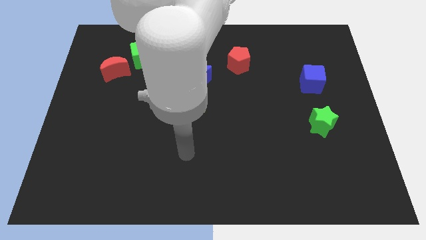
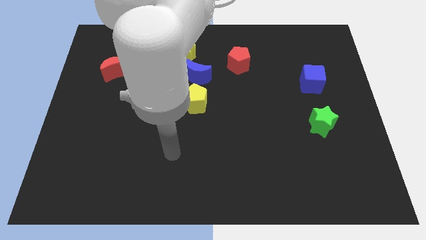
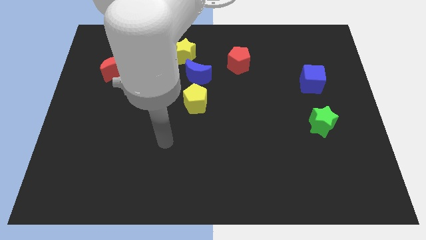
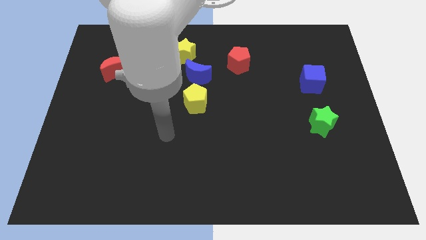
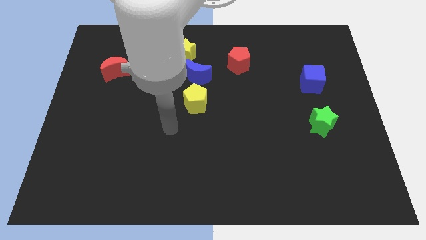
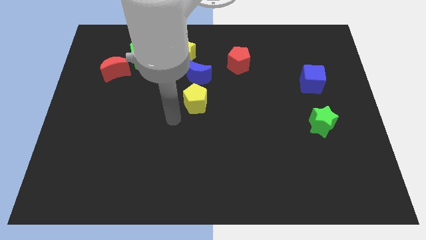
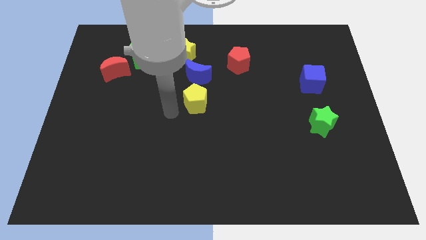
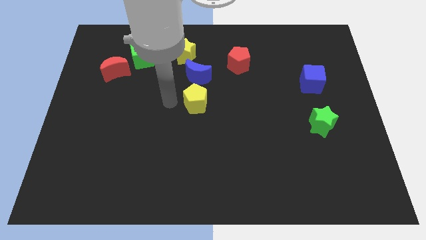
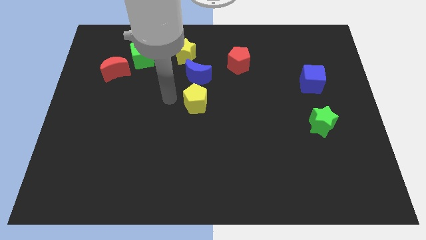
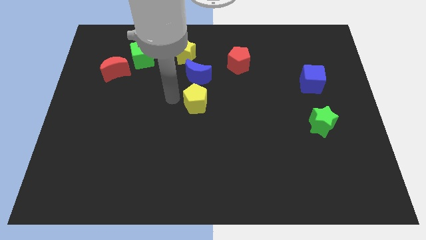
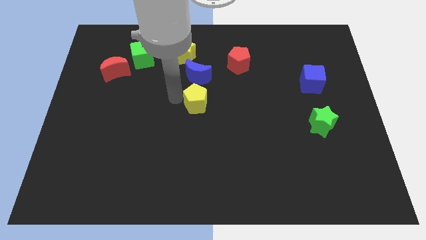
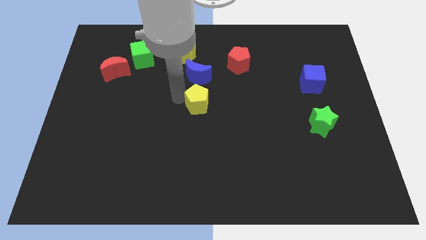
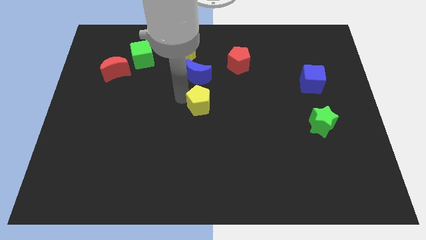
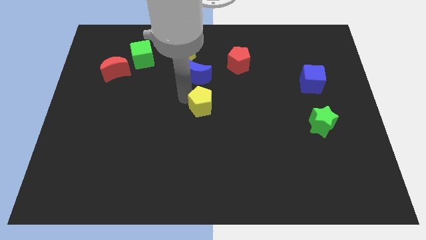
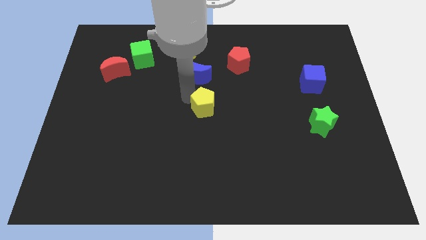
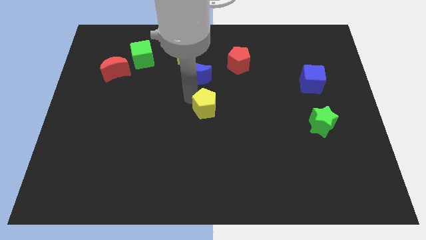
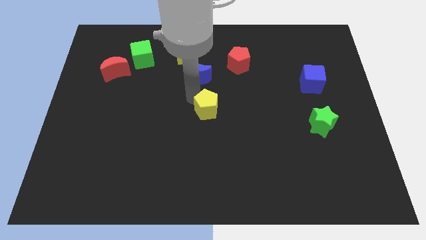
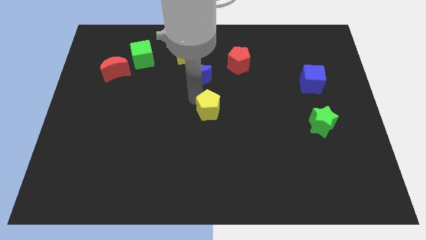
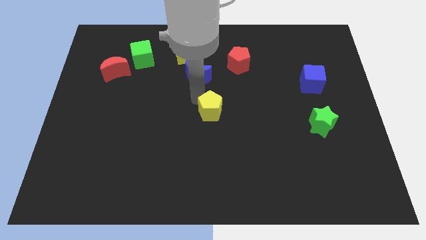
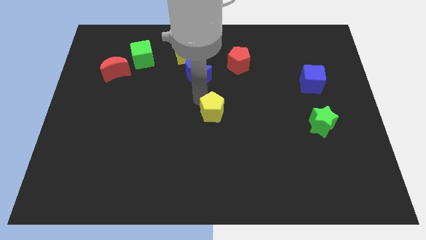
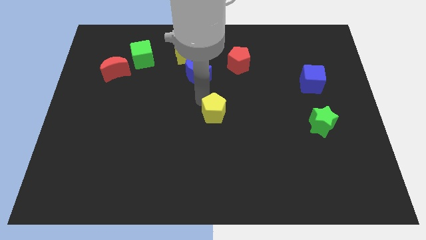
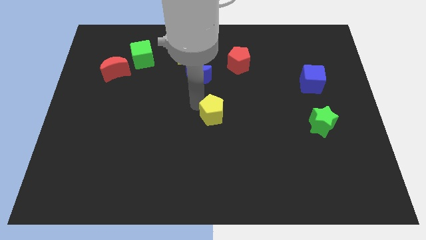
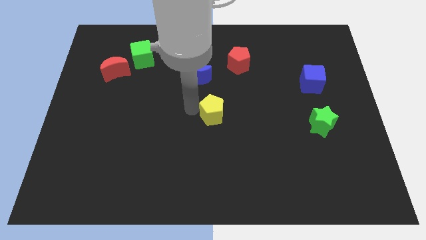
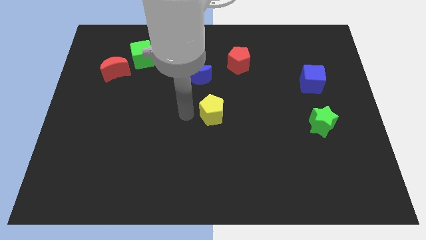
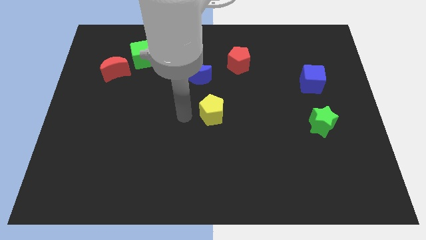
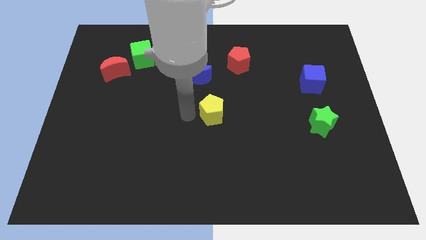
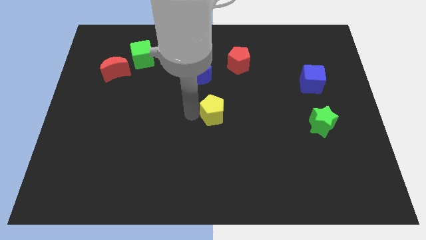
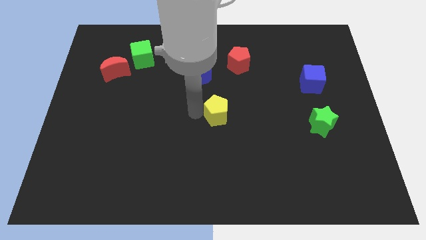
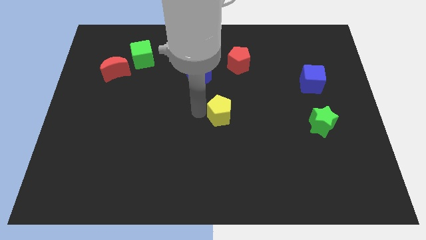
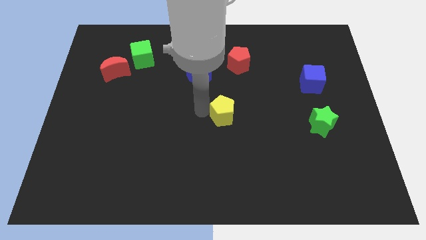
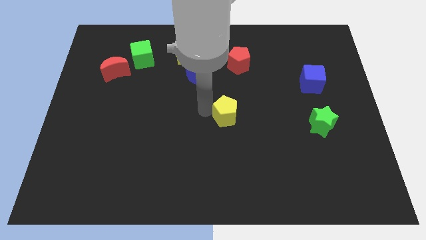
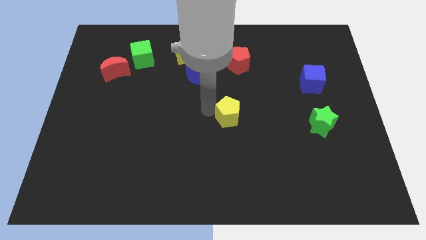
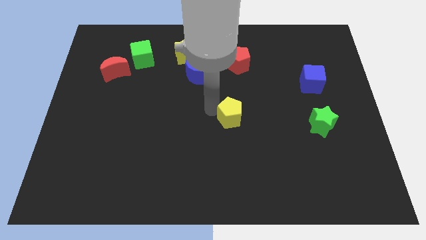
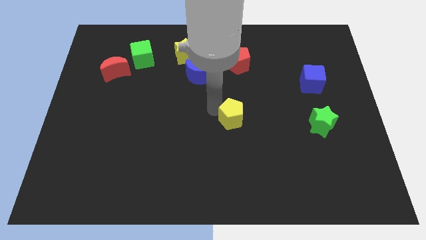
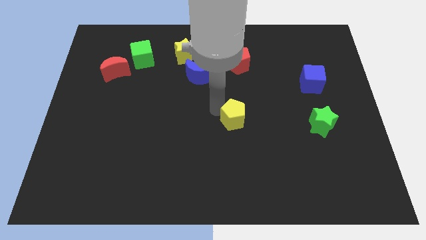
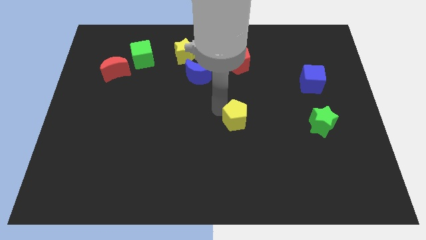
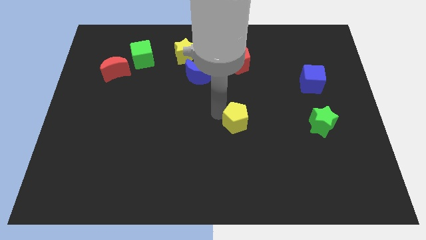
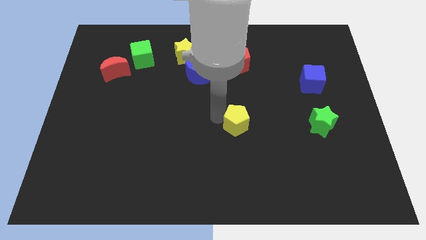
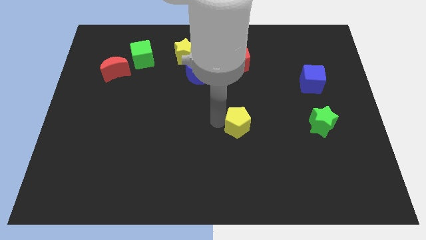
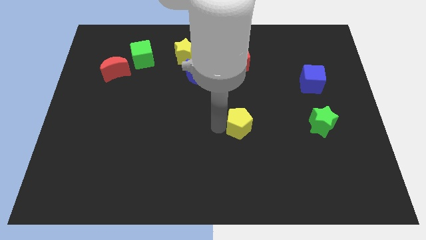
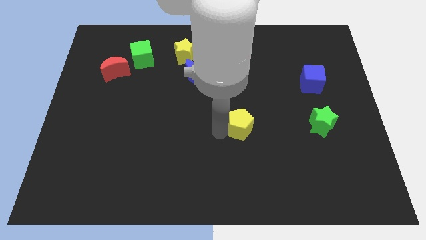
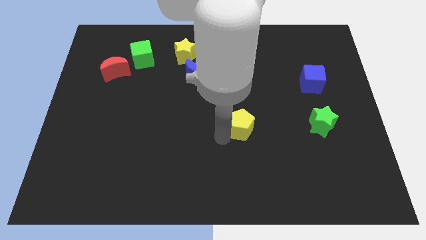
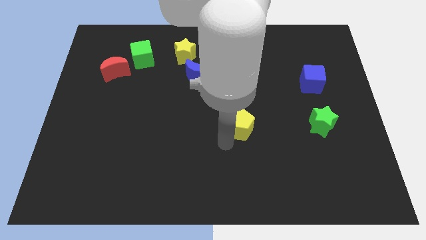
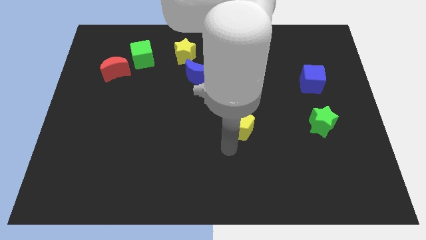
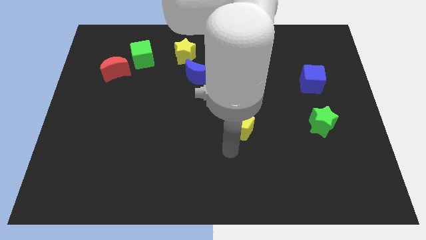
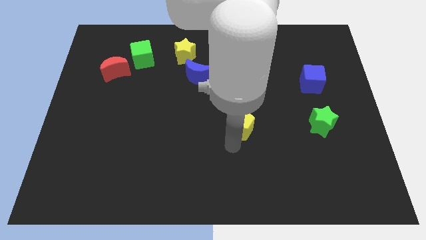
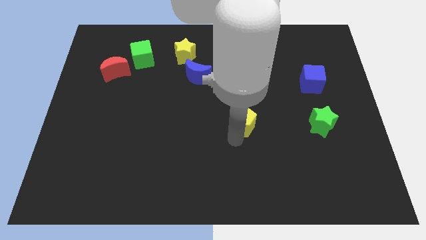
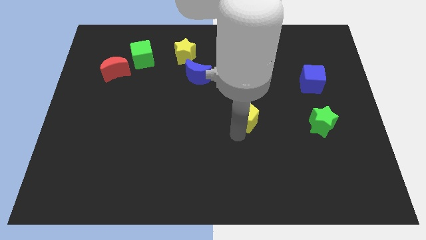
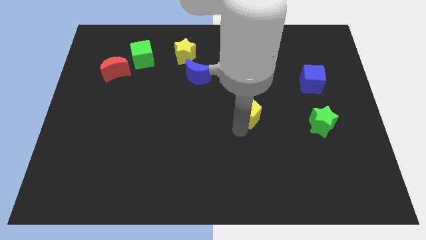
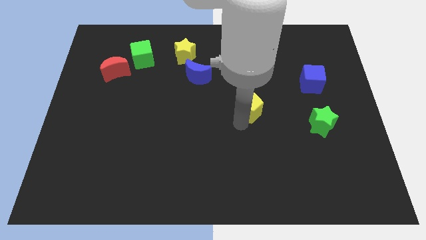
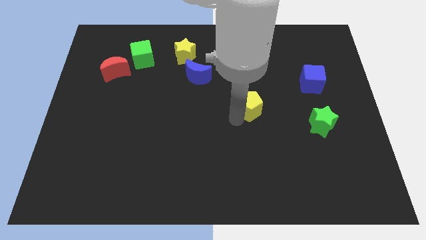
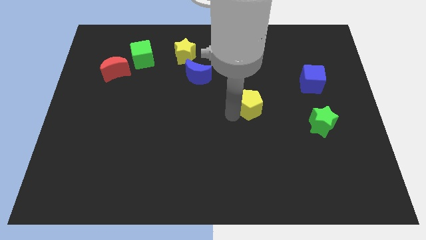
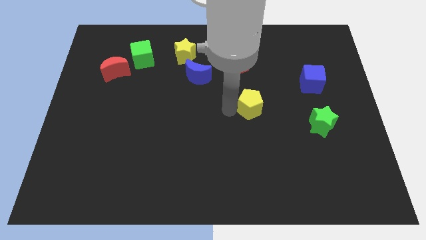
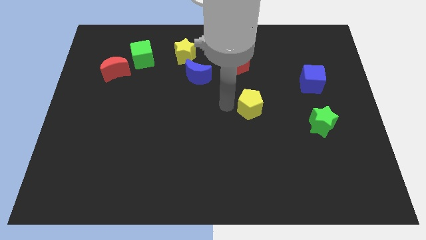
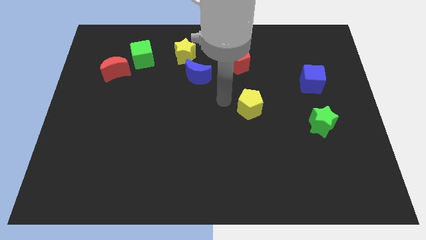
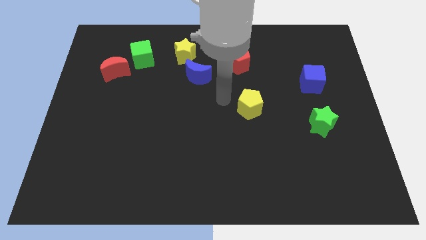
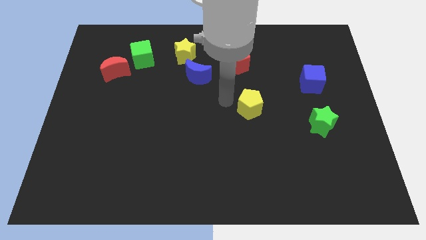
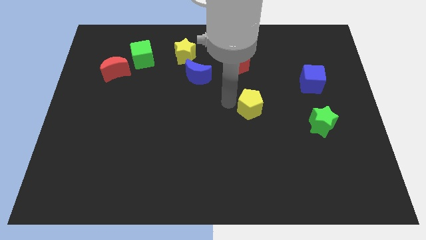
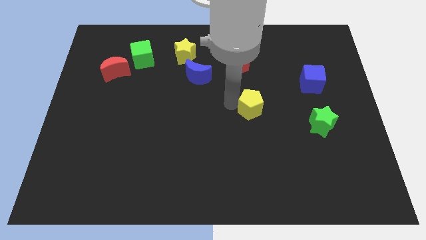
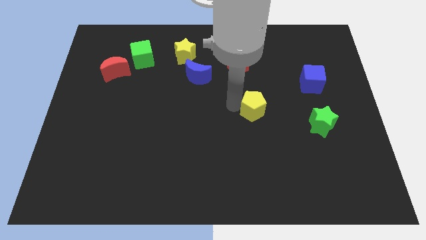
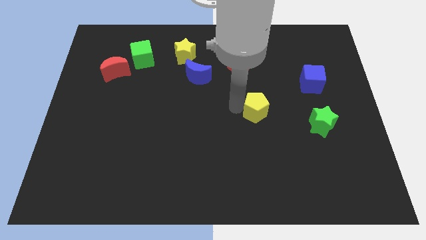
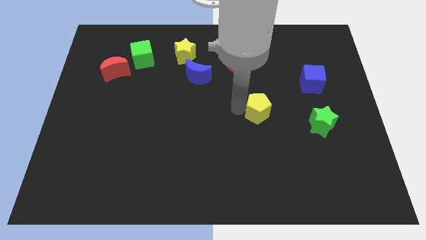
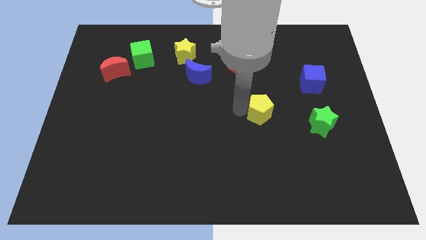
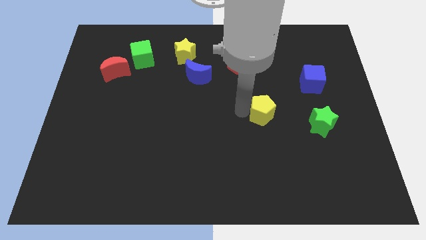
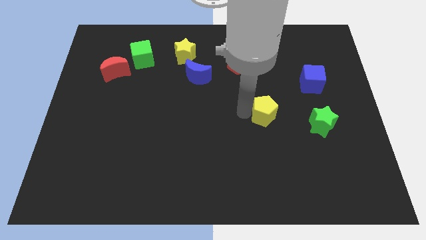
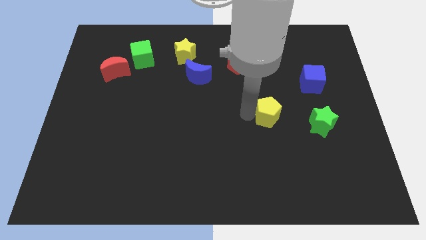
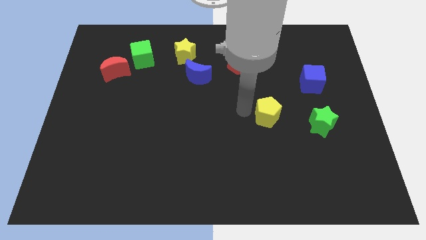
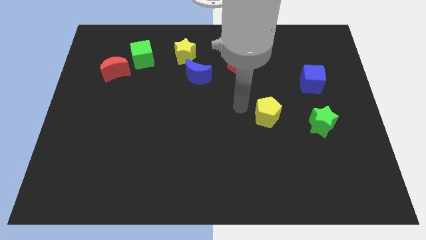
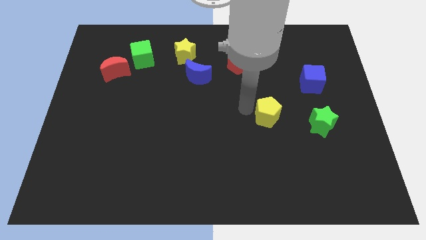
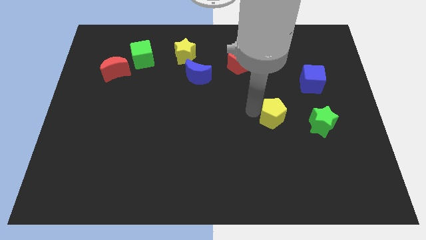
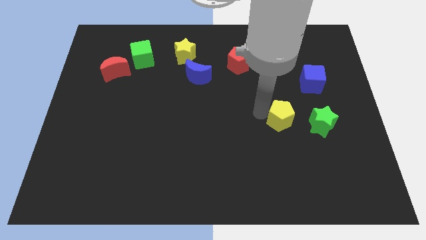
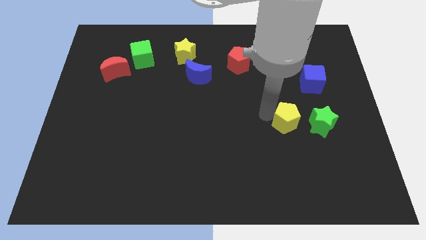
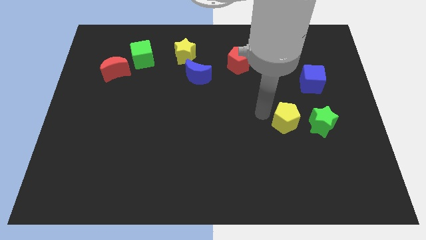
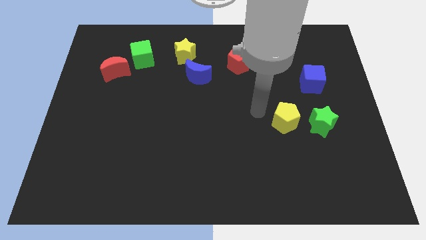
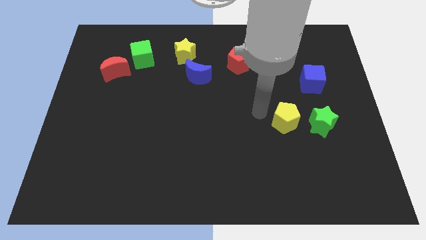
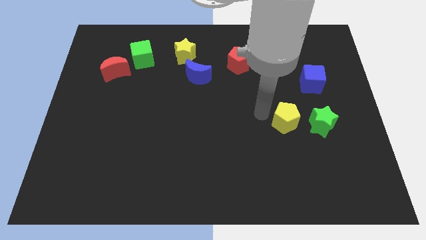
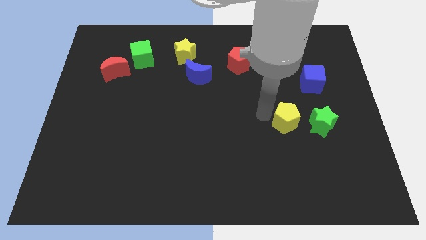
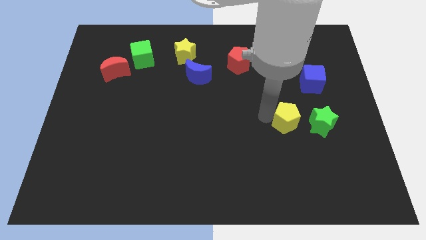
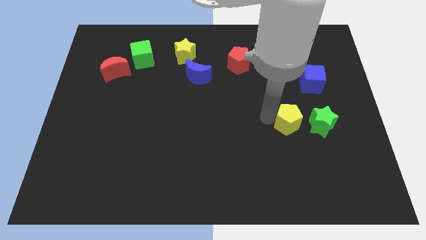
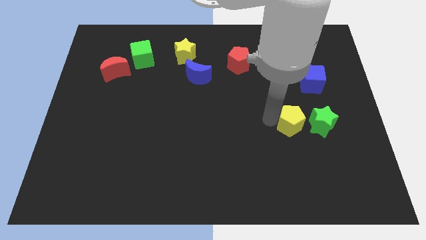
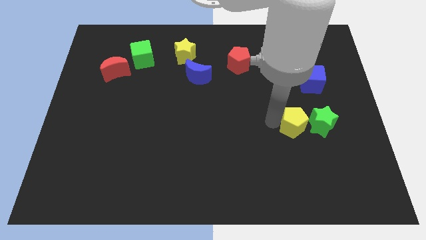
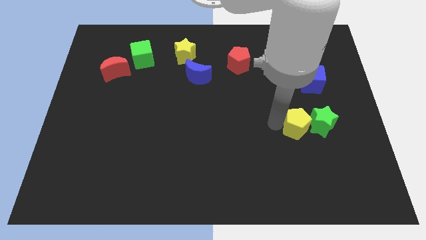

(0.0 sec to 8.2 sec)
put the yellow pentagon towards the green star
